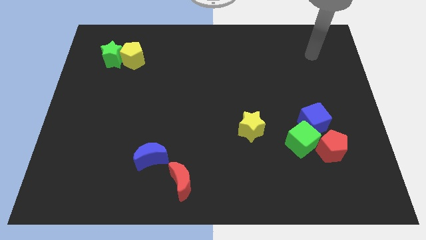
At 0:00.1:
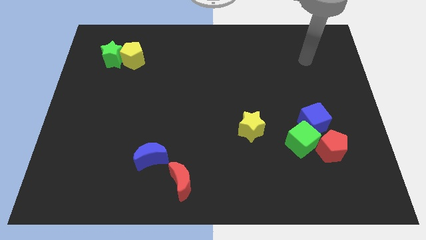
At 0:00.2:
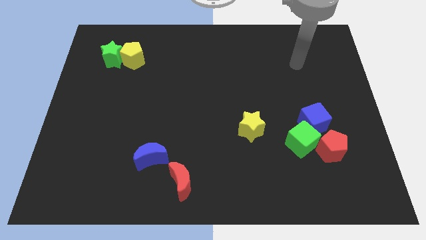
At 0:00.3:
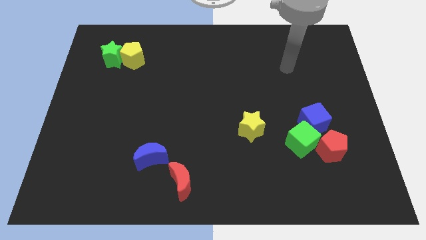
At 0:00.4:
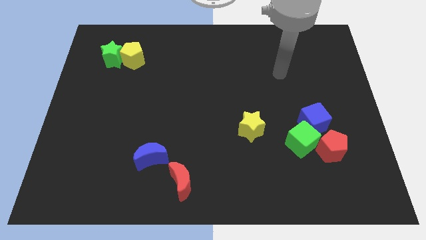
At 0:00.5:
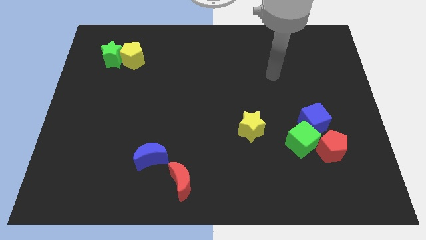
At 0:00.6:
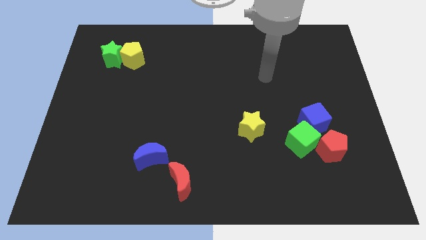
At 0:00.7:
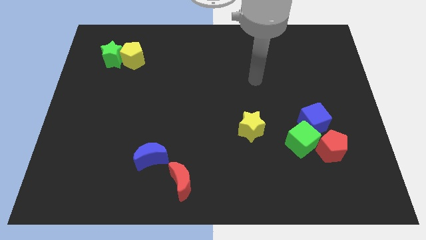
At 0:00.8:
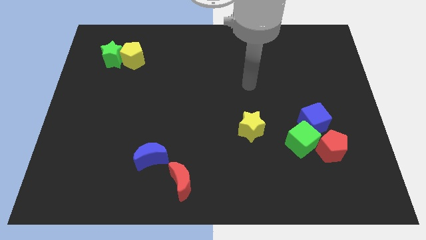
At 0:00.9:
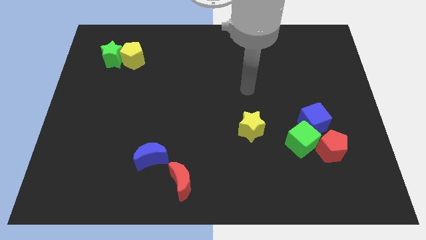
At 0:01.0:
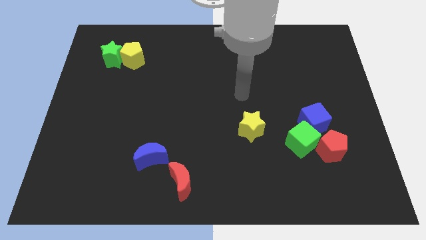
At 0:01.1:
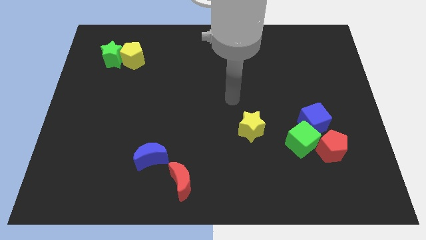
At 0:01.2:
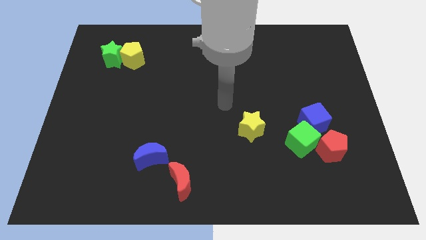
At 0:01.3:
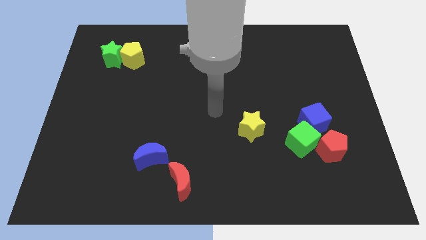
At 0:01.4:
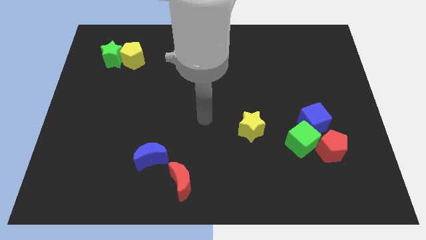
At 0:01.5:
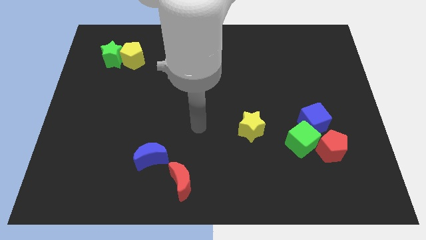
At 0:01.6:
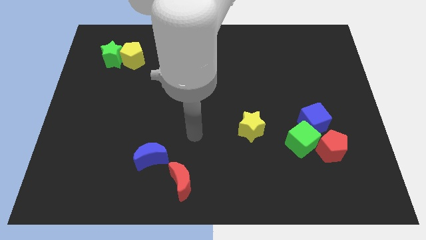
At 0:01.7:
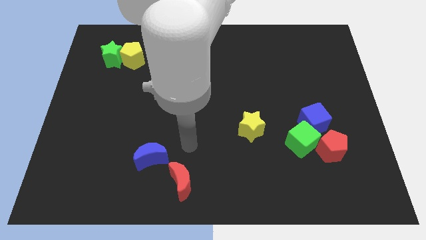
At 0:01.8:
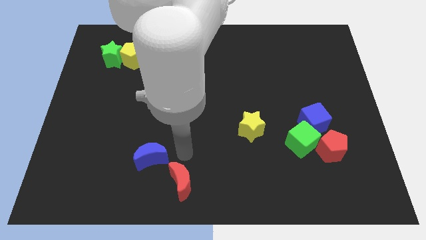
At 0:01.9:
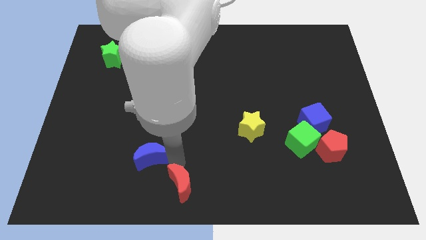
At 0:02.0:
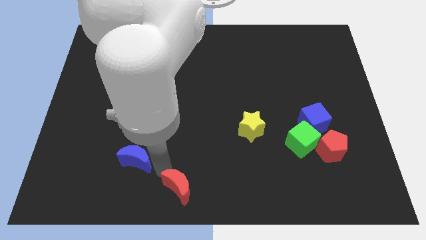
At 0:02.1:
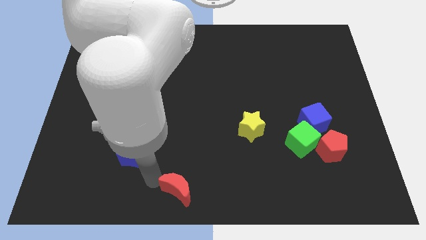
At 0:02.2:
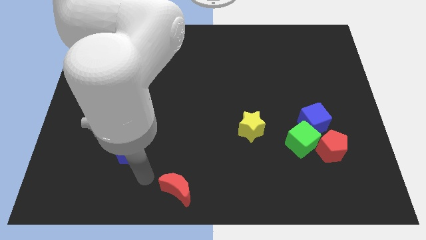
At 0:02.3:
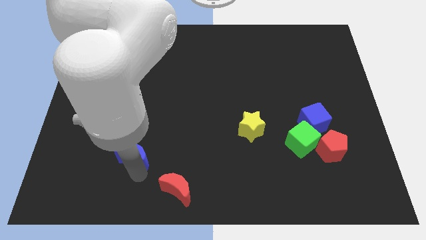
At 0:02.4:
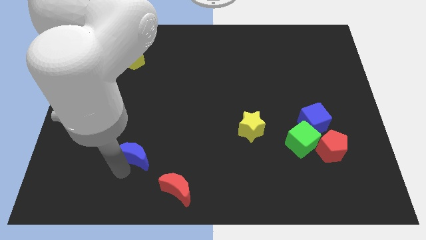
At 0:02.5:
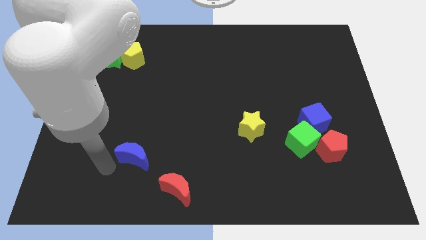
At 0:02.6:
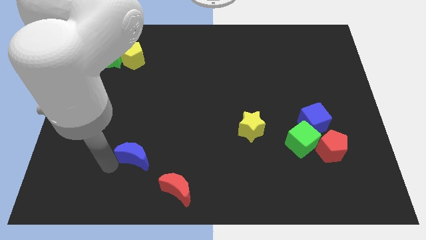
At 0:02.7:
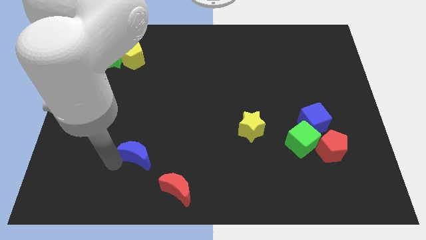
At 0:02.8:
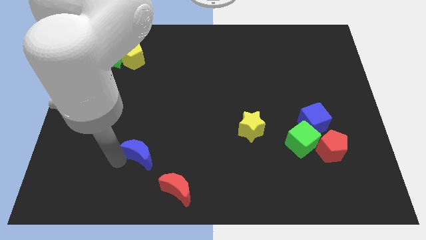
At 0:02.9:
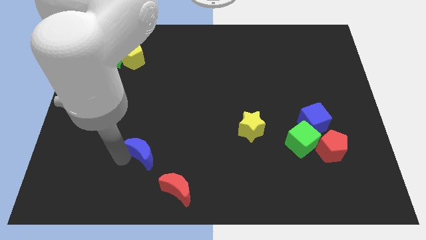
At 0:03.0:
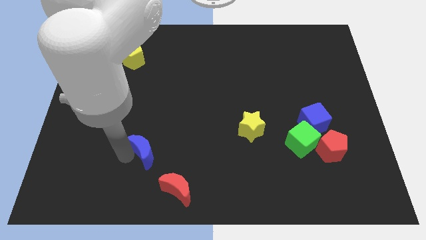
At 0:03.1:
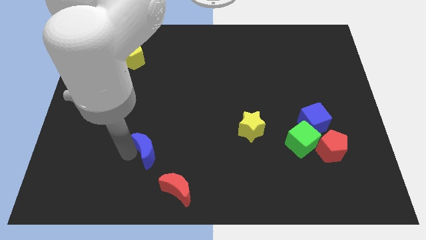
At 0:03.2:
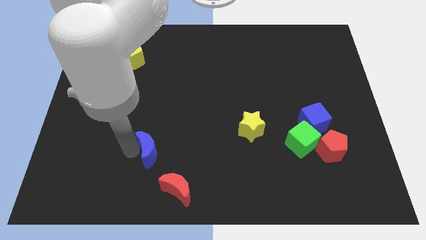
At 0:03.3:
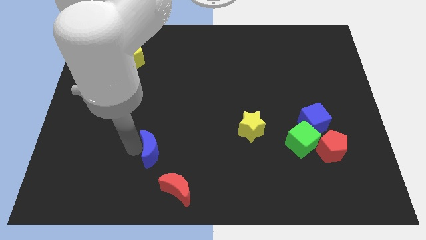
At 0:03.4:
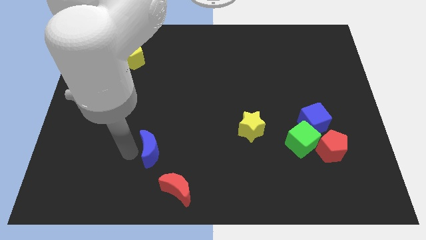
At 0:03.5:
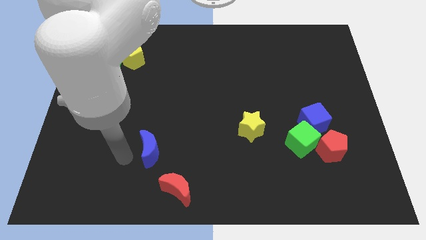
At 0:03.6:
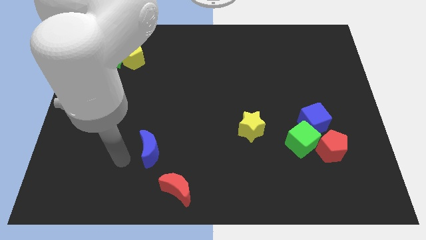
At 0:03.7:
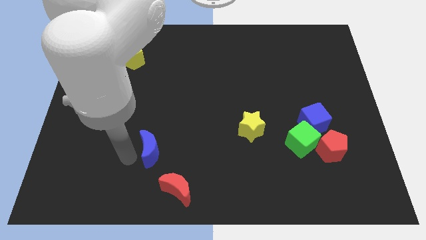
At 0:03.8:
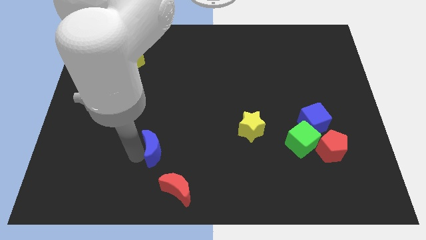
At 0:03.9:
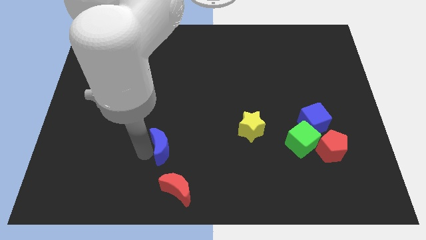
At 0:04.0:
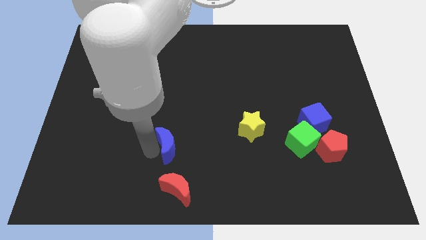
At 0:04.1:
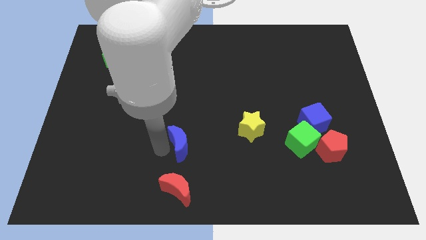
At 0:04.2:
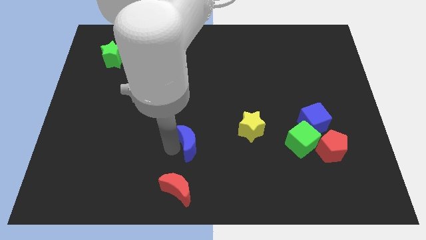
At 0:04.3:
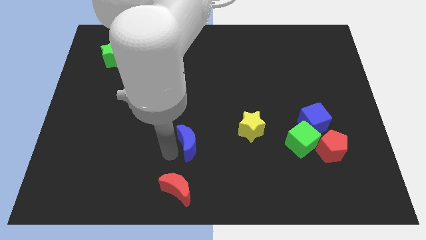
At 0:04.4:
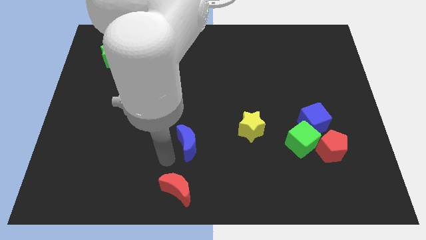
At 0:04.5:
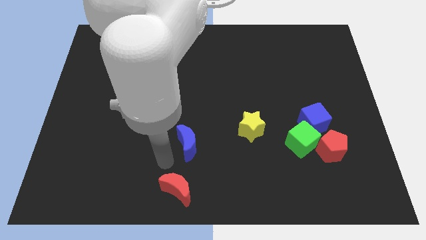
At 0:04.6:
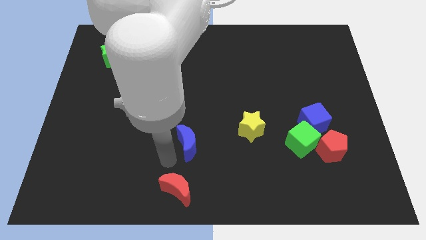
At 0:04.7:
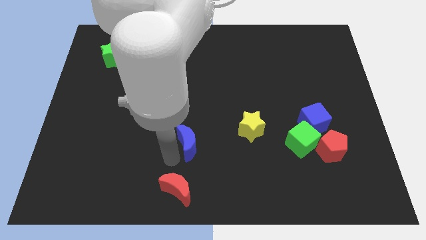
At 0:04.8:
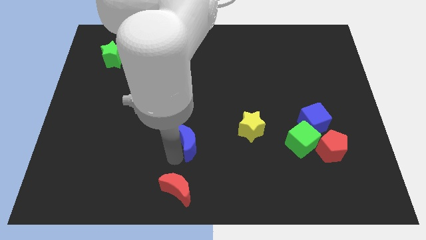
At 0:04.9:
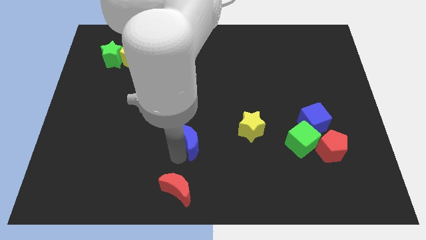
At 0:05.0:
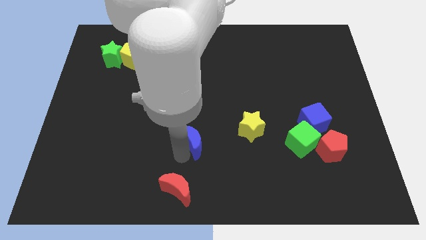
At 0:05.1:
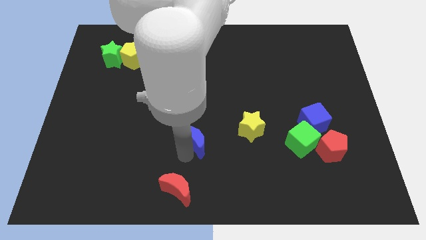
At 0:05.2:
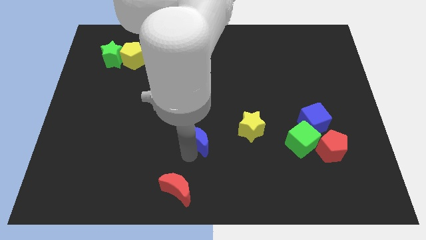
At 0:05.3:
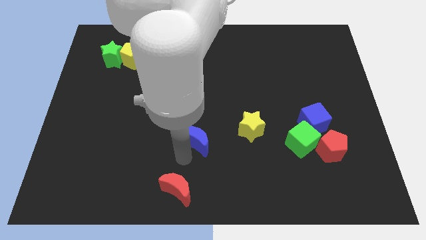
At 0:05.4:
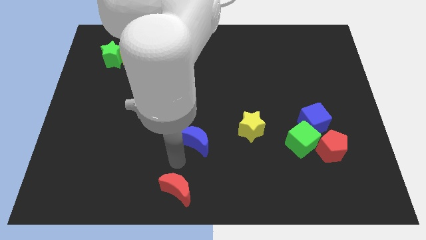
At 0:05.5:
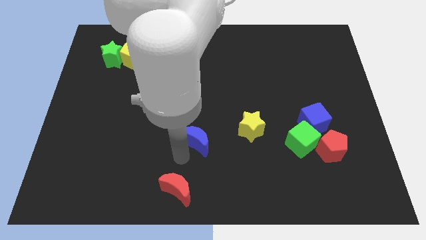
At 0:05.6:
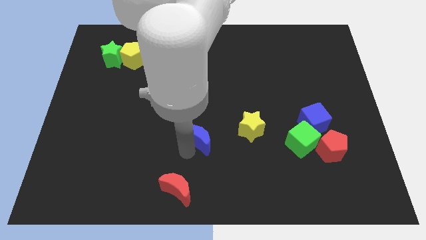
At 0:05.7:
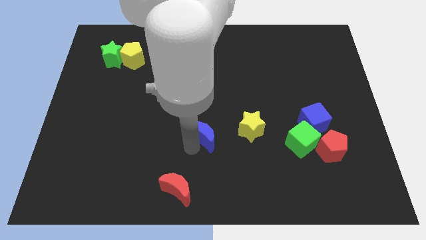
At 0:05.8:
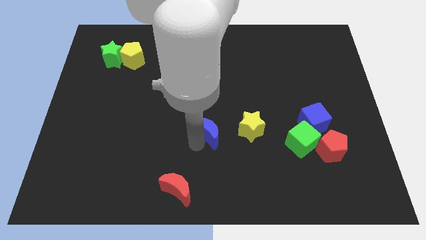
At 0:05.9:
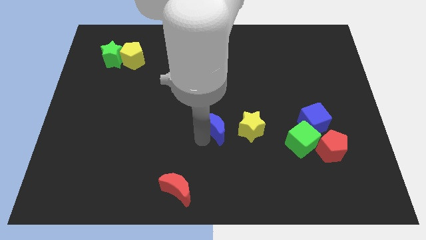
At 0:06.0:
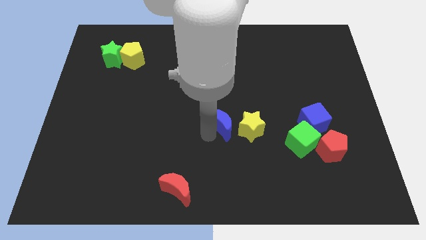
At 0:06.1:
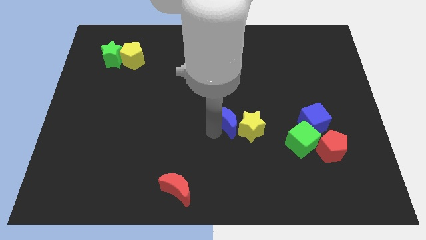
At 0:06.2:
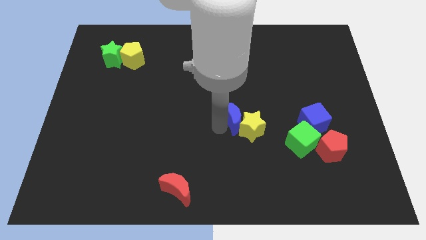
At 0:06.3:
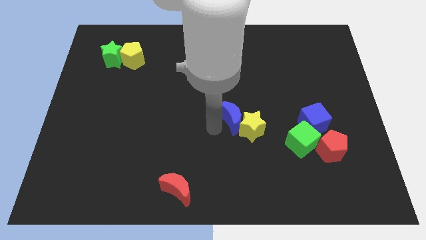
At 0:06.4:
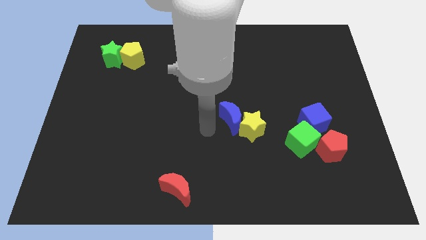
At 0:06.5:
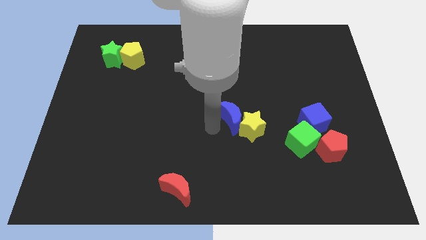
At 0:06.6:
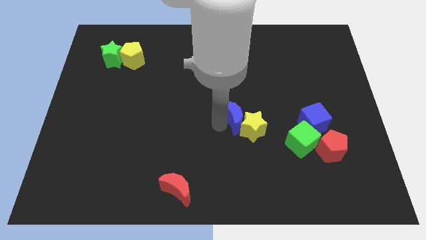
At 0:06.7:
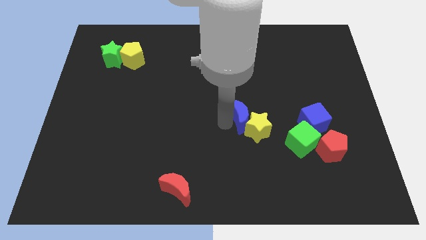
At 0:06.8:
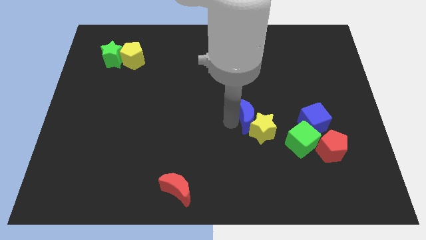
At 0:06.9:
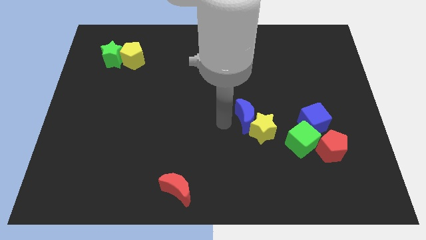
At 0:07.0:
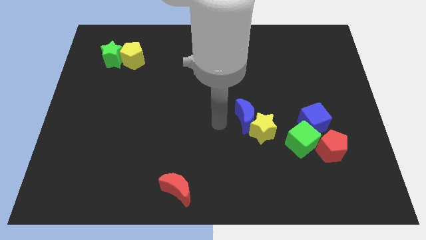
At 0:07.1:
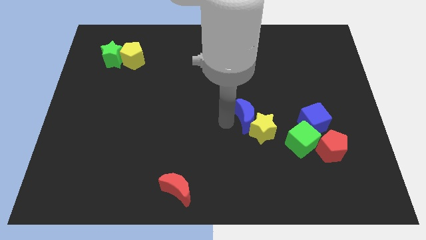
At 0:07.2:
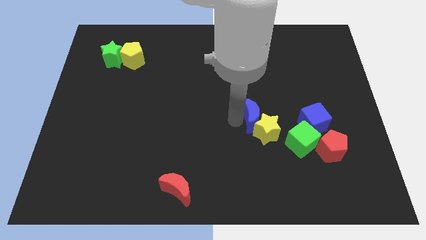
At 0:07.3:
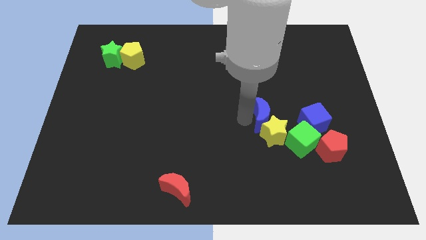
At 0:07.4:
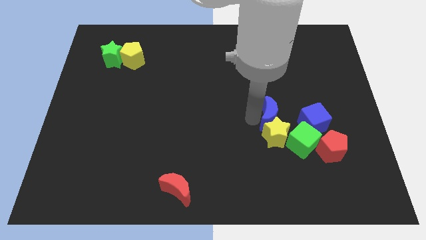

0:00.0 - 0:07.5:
move the blue moon to the top right side of the yellow star
